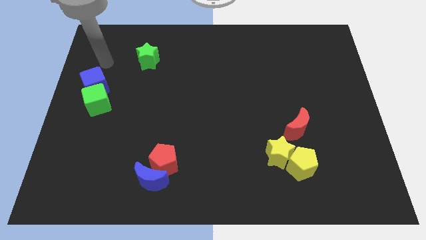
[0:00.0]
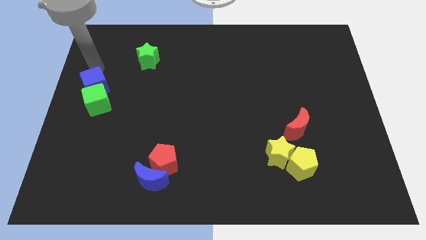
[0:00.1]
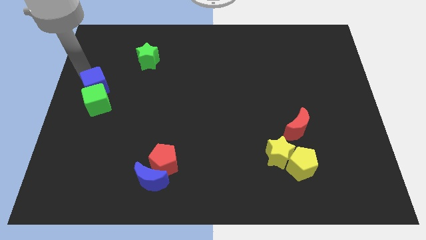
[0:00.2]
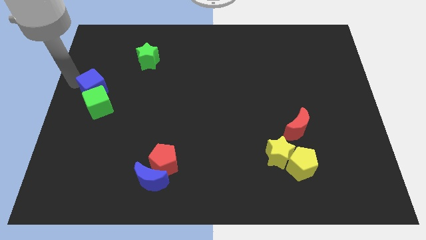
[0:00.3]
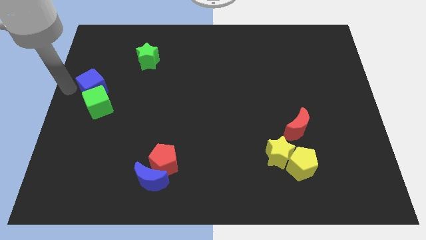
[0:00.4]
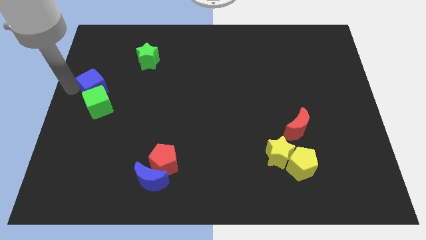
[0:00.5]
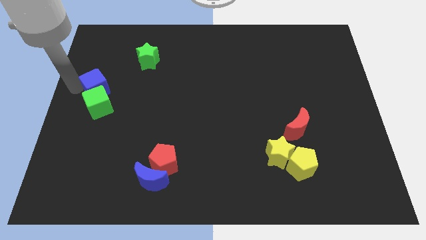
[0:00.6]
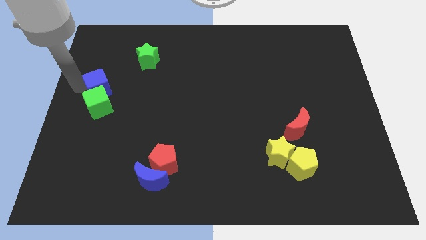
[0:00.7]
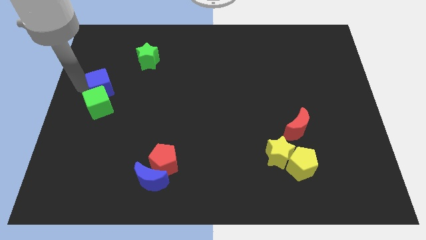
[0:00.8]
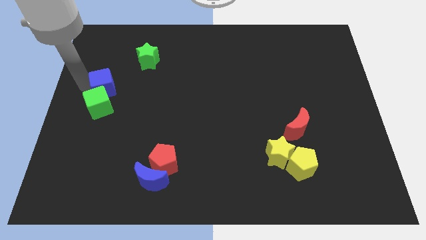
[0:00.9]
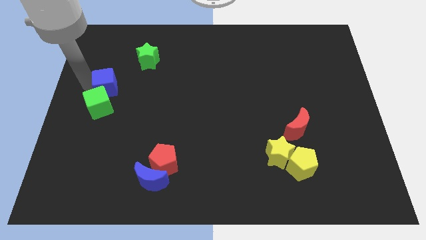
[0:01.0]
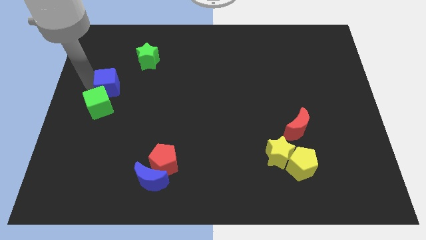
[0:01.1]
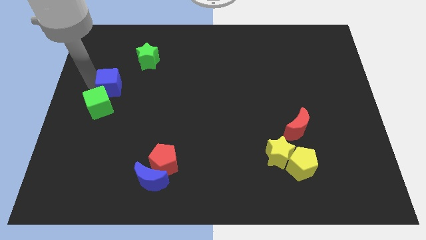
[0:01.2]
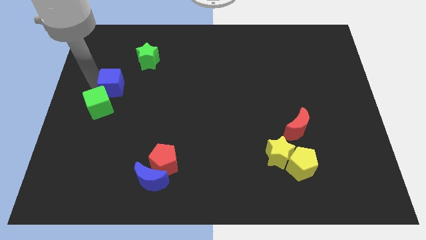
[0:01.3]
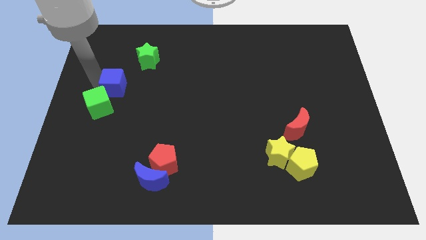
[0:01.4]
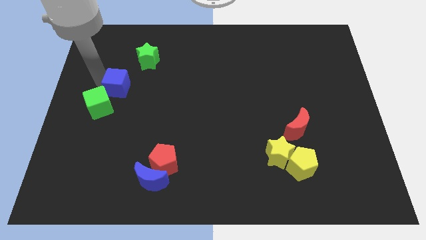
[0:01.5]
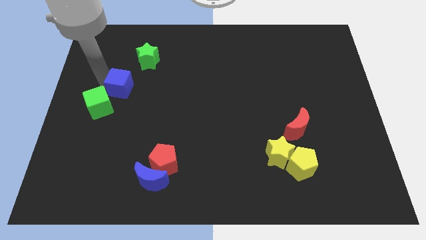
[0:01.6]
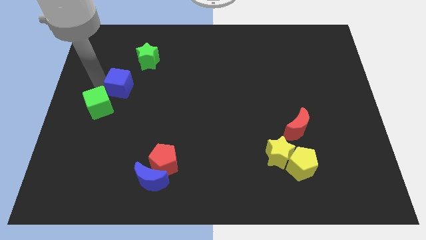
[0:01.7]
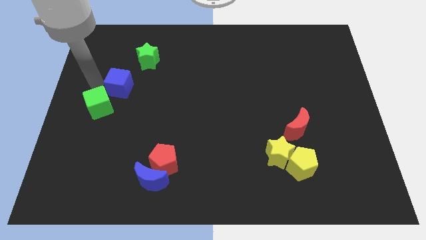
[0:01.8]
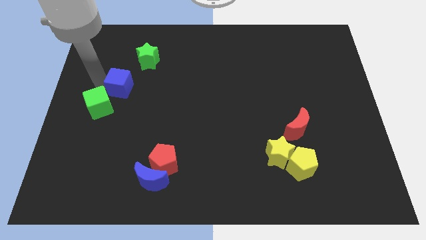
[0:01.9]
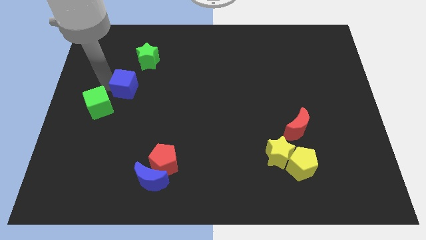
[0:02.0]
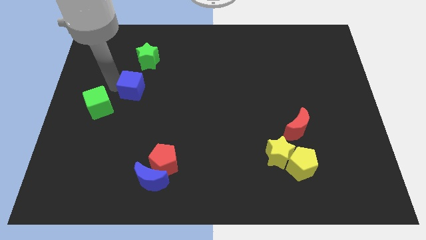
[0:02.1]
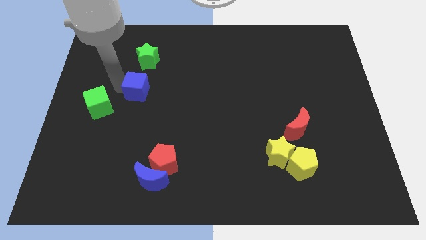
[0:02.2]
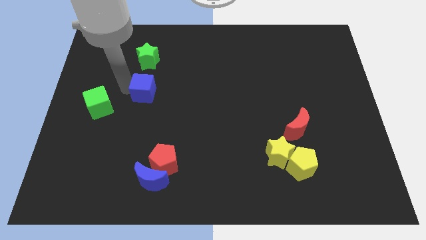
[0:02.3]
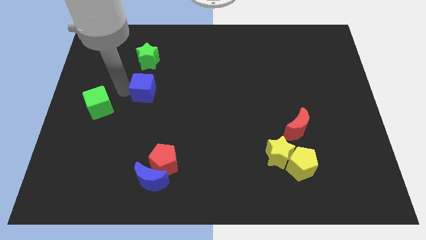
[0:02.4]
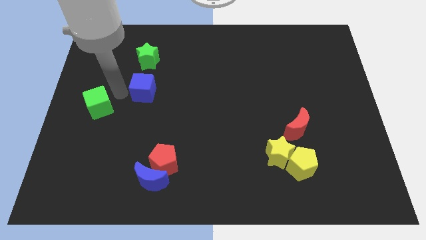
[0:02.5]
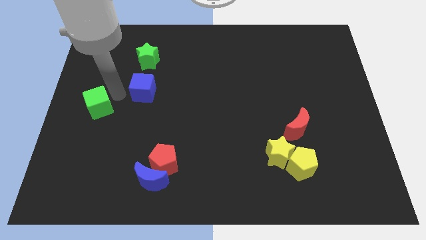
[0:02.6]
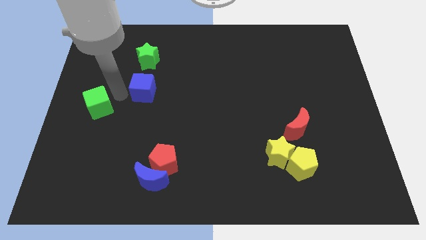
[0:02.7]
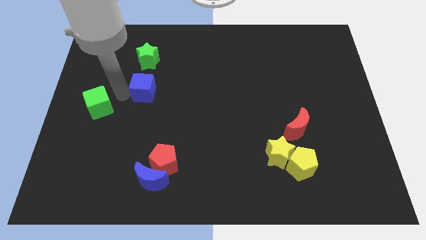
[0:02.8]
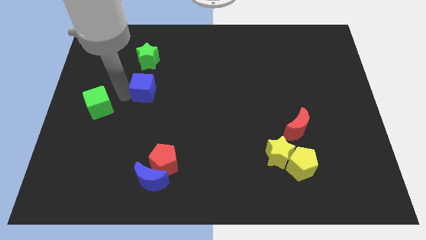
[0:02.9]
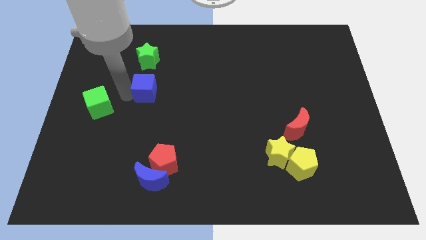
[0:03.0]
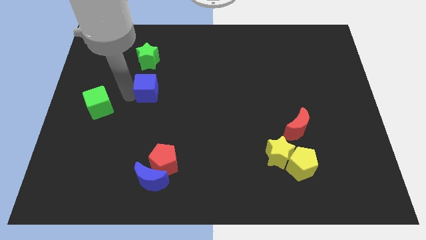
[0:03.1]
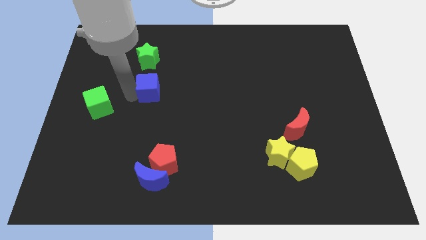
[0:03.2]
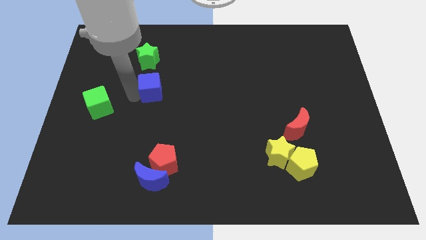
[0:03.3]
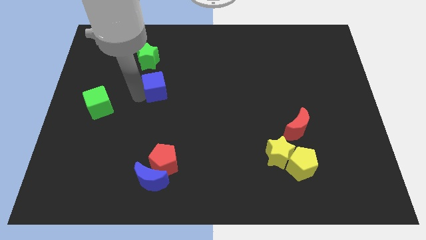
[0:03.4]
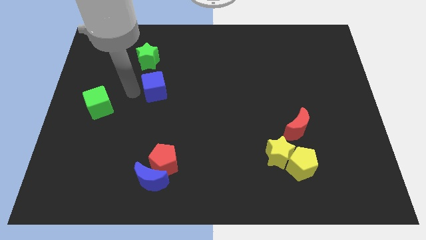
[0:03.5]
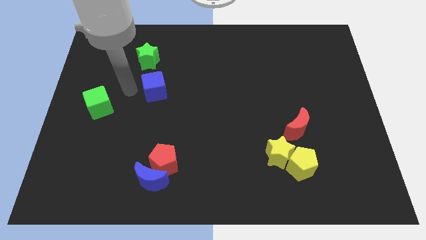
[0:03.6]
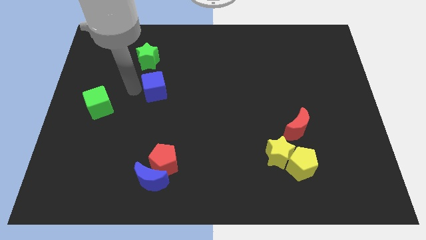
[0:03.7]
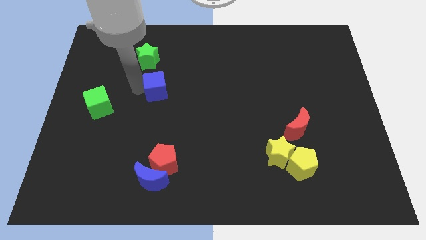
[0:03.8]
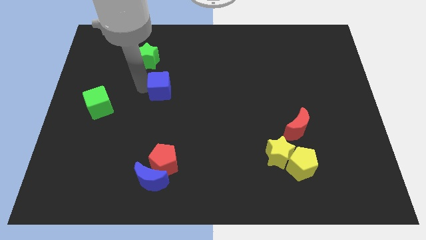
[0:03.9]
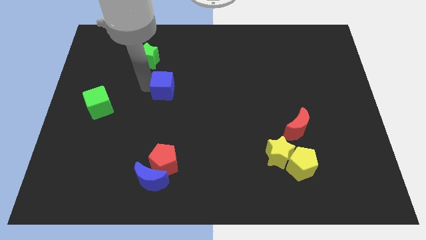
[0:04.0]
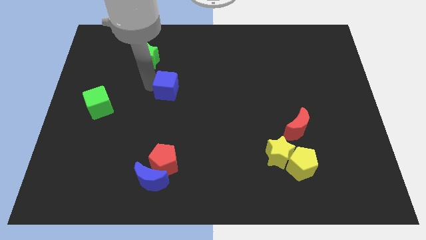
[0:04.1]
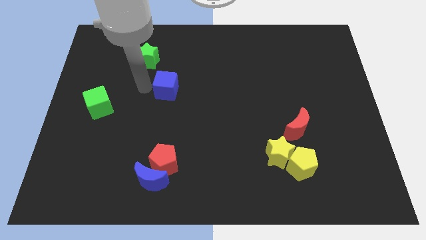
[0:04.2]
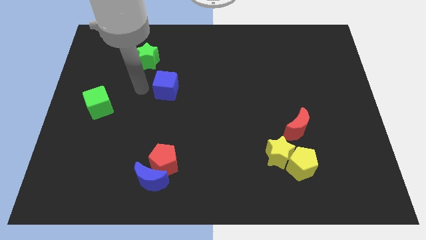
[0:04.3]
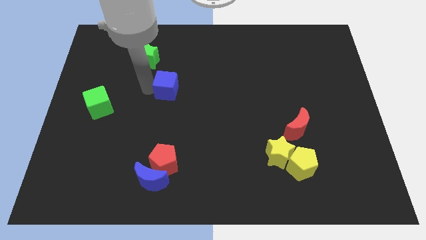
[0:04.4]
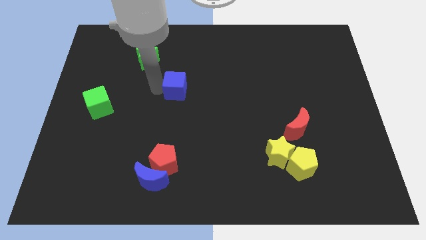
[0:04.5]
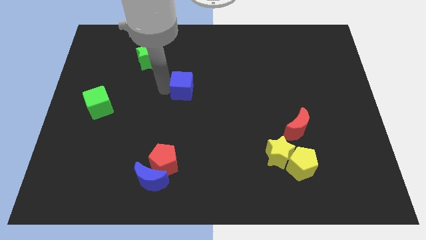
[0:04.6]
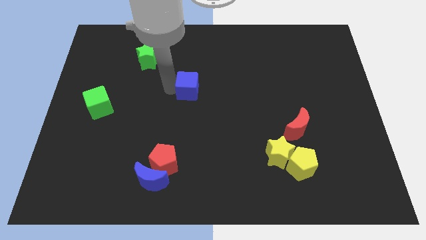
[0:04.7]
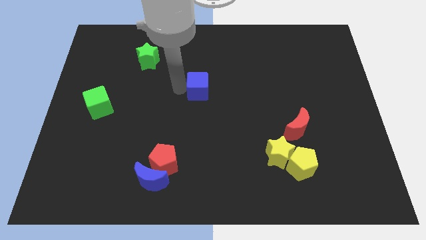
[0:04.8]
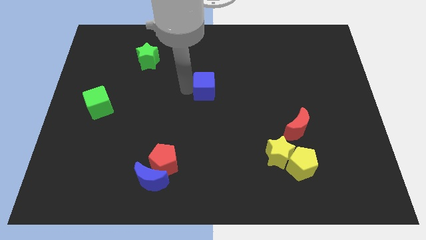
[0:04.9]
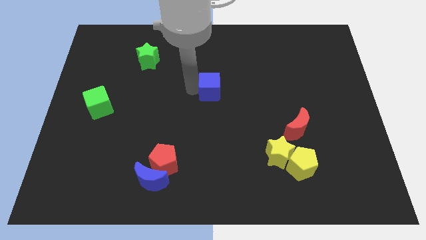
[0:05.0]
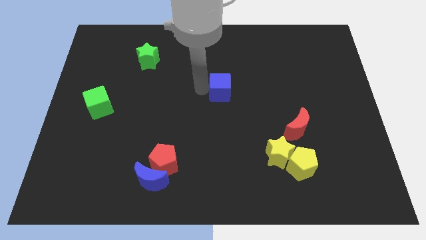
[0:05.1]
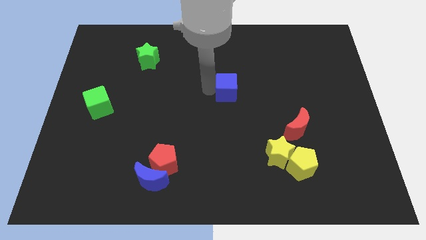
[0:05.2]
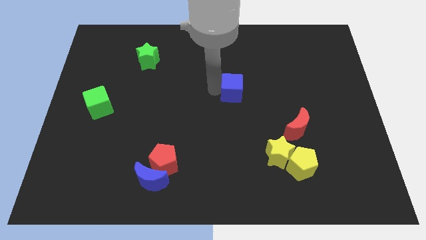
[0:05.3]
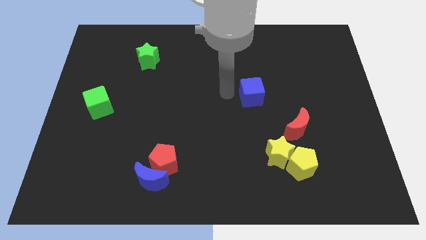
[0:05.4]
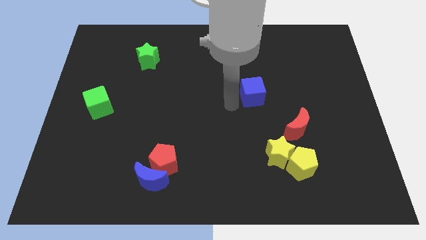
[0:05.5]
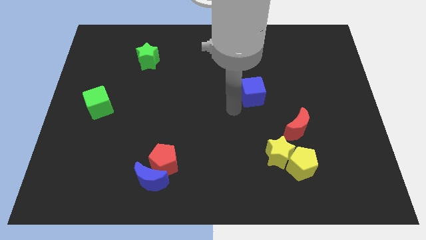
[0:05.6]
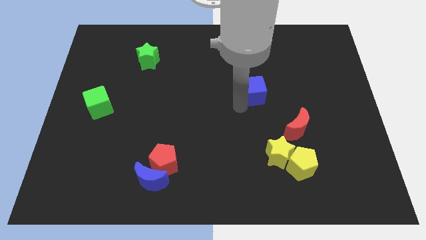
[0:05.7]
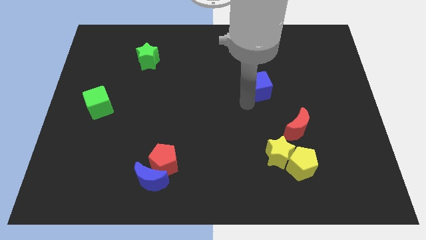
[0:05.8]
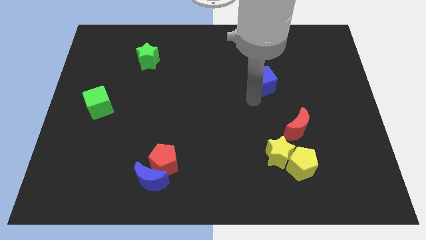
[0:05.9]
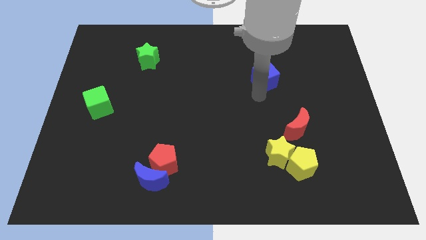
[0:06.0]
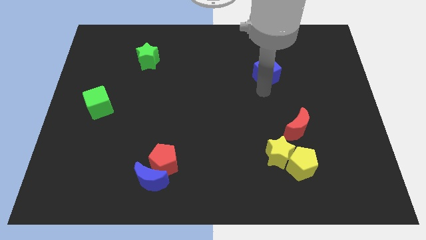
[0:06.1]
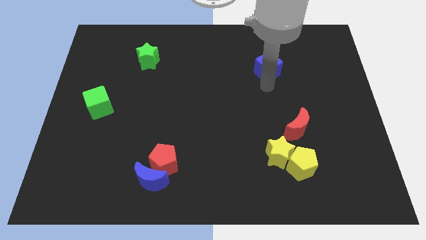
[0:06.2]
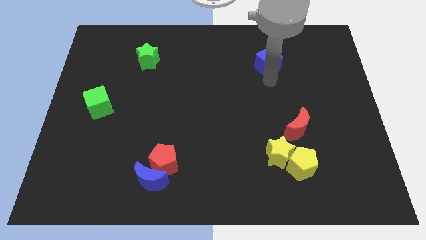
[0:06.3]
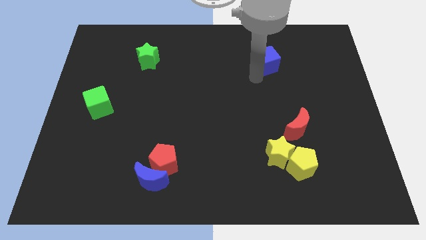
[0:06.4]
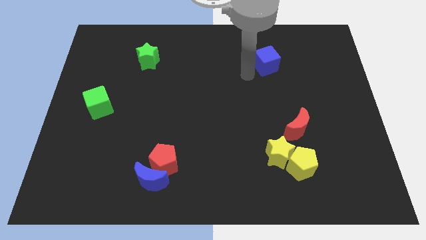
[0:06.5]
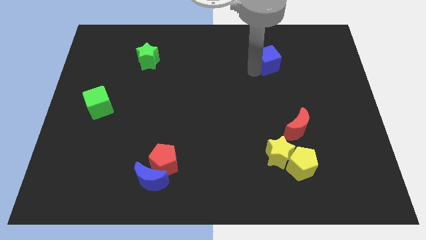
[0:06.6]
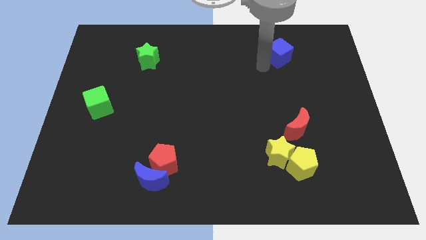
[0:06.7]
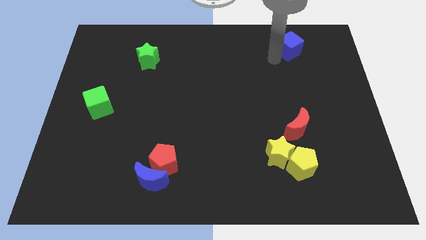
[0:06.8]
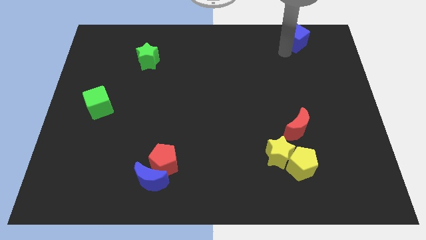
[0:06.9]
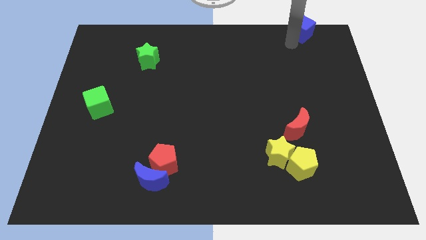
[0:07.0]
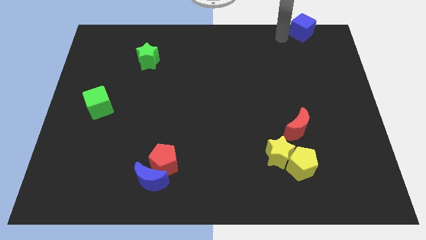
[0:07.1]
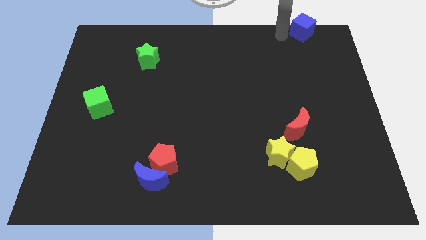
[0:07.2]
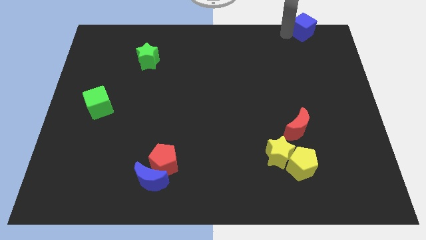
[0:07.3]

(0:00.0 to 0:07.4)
push the blue cube to the top right of the board
